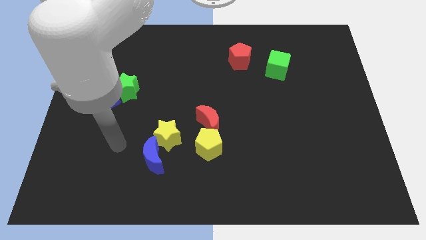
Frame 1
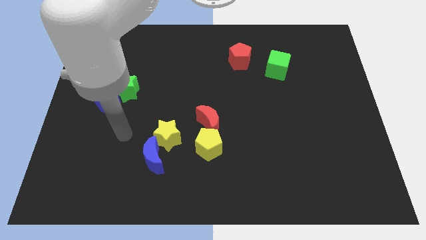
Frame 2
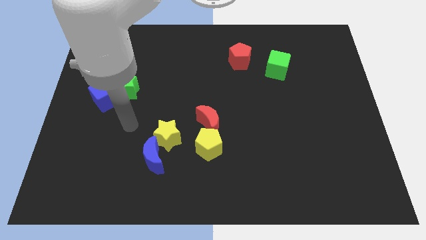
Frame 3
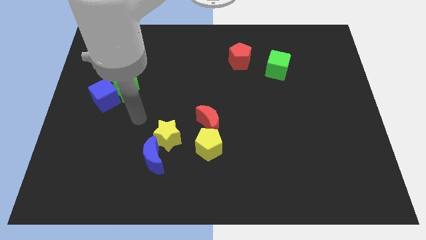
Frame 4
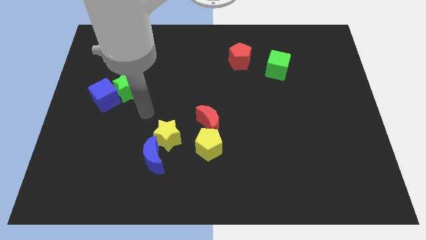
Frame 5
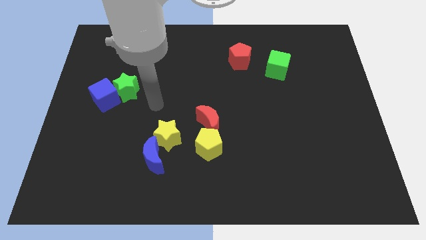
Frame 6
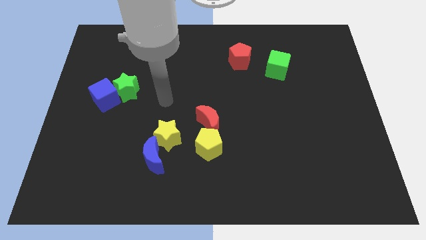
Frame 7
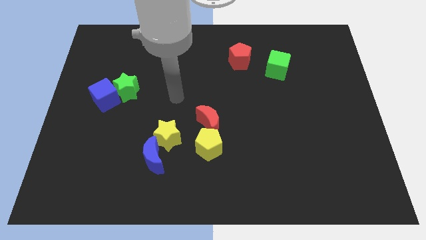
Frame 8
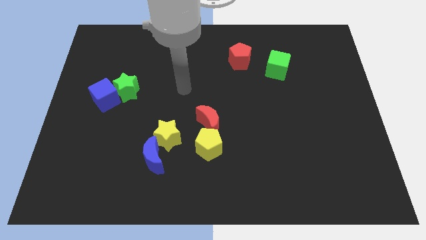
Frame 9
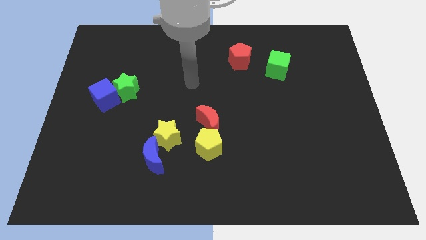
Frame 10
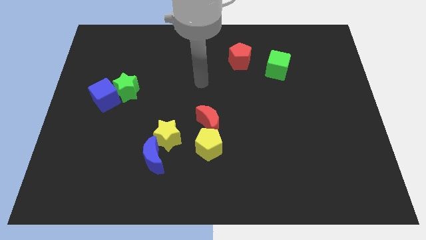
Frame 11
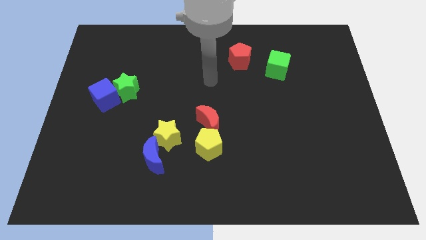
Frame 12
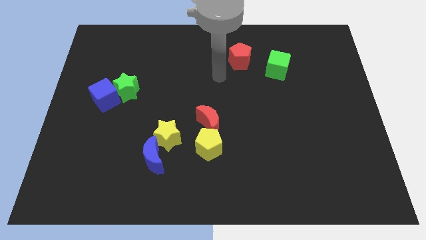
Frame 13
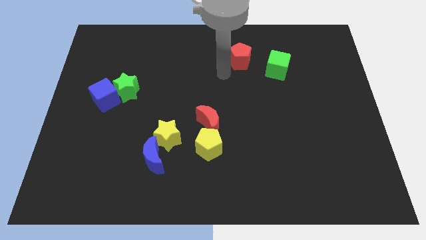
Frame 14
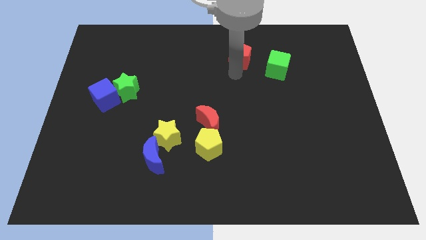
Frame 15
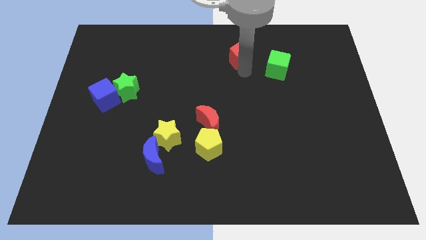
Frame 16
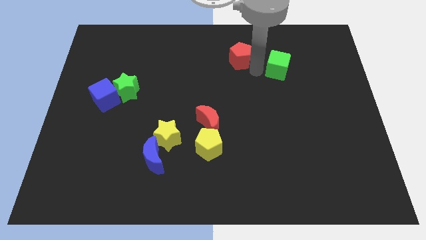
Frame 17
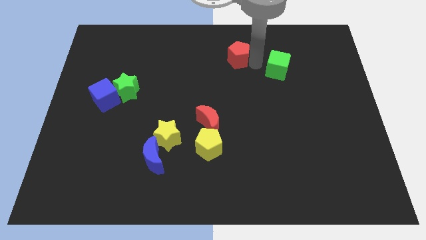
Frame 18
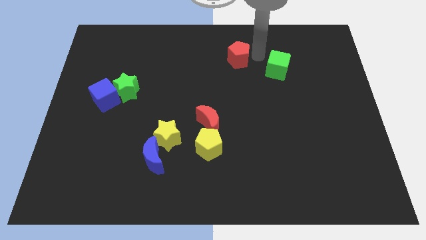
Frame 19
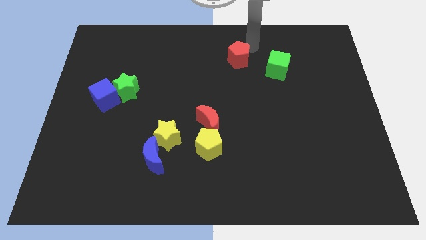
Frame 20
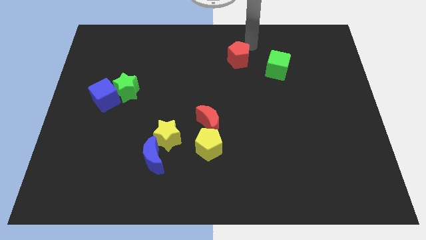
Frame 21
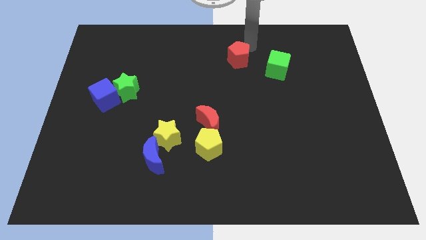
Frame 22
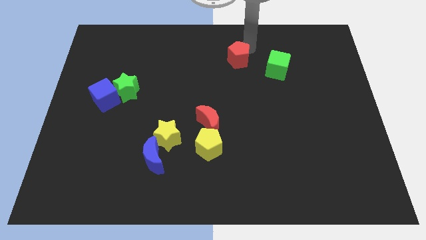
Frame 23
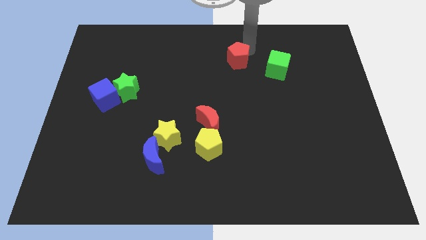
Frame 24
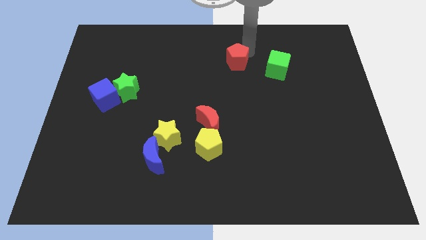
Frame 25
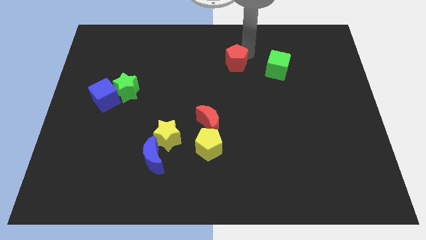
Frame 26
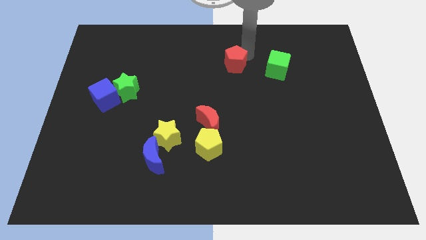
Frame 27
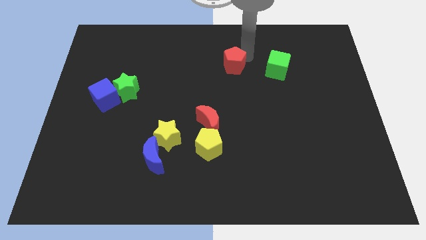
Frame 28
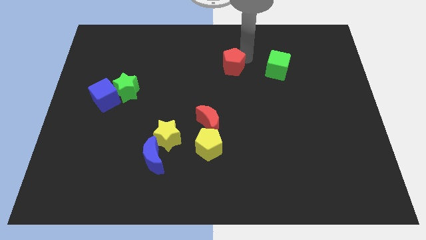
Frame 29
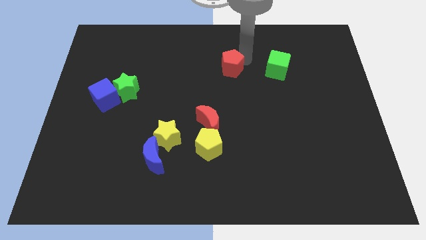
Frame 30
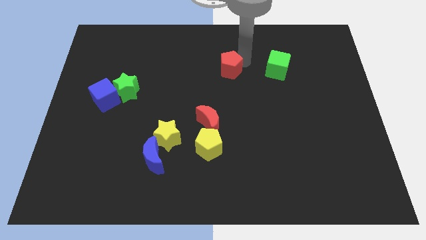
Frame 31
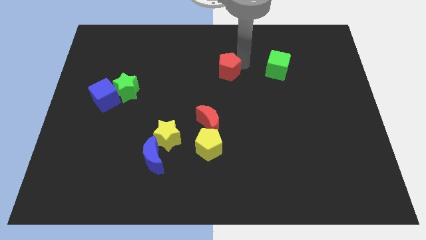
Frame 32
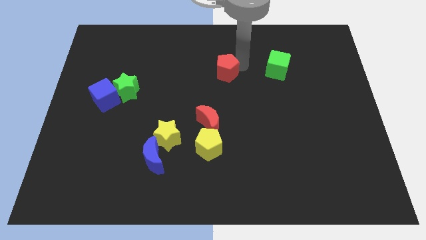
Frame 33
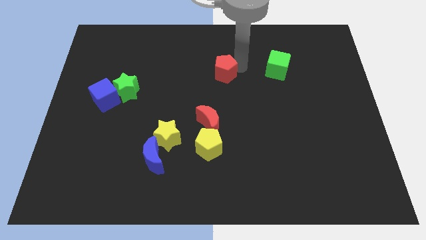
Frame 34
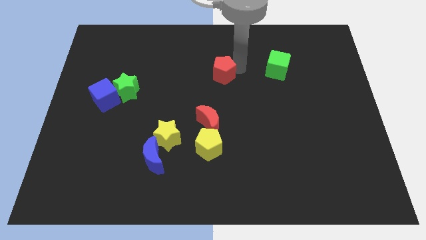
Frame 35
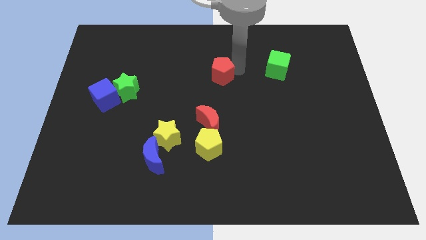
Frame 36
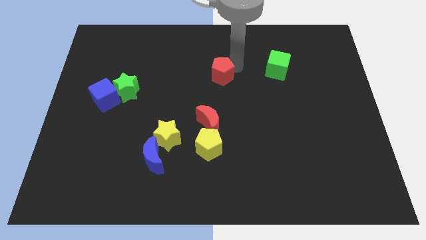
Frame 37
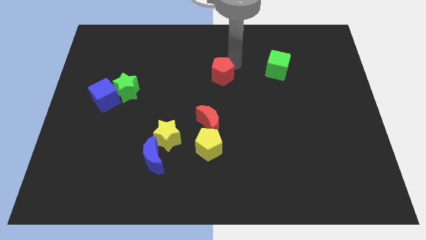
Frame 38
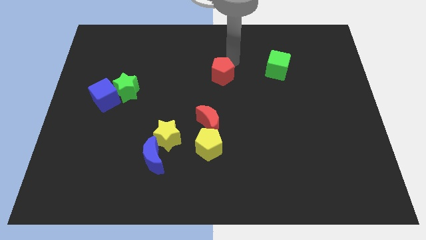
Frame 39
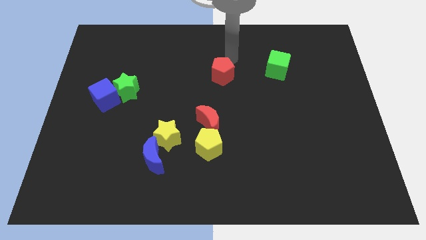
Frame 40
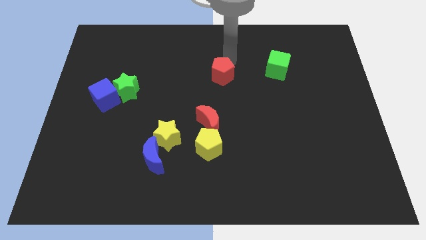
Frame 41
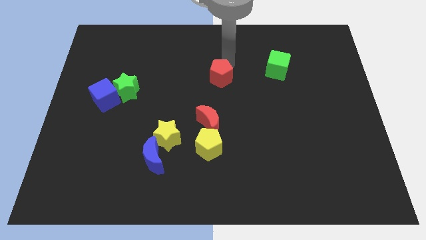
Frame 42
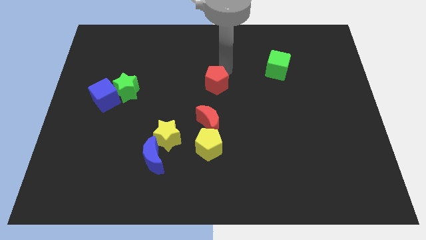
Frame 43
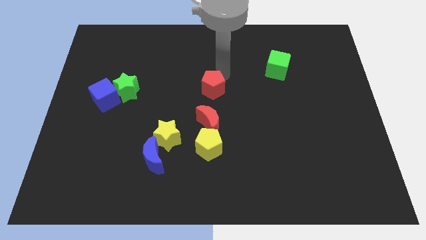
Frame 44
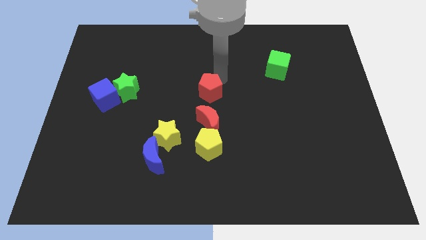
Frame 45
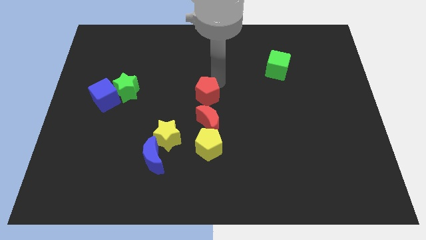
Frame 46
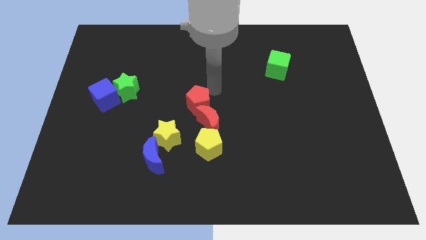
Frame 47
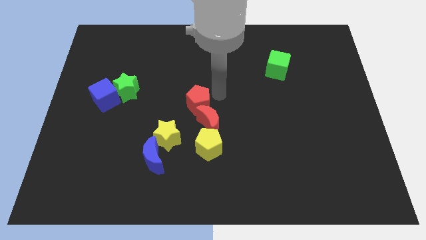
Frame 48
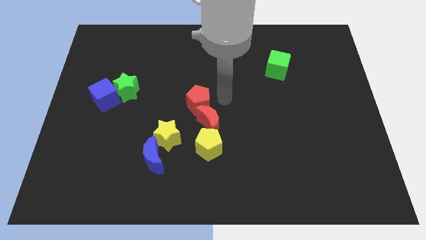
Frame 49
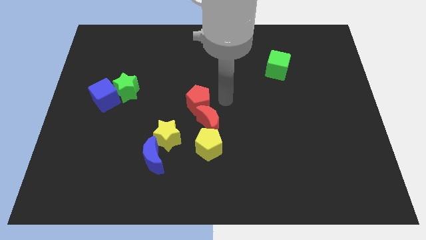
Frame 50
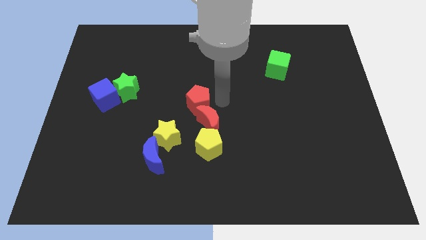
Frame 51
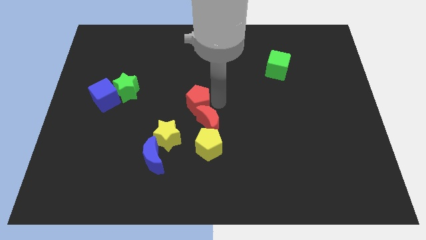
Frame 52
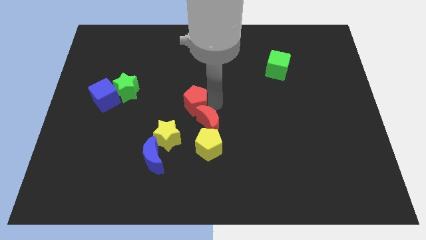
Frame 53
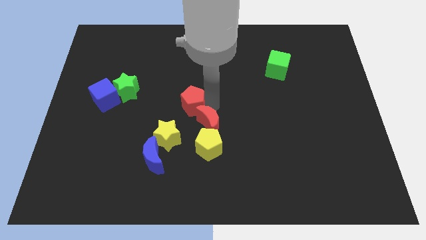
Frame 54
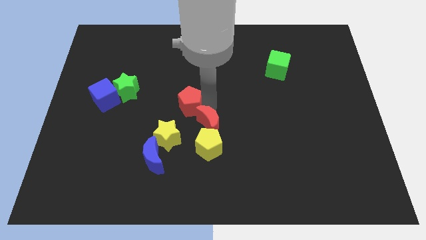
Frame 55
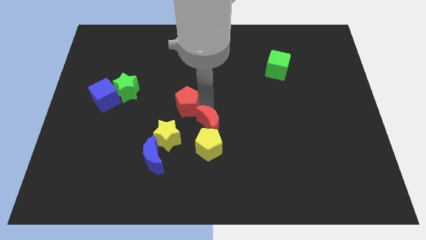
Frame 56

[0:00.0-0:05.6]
push the red pentagon down and to the left diagonally

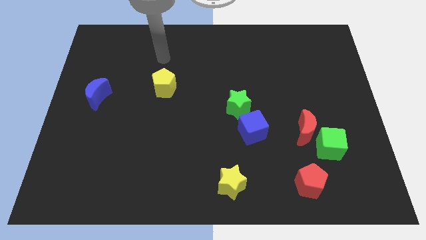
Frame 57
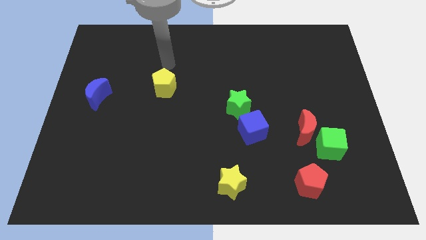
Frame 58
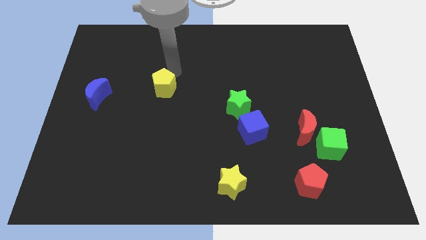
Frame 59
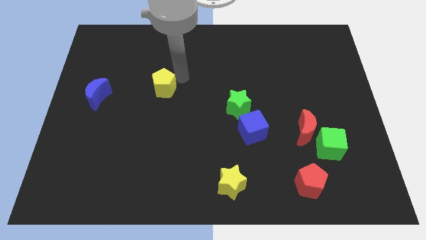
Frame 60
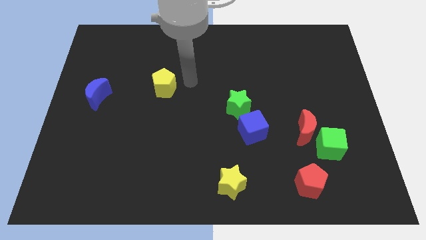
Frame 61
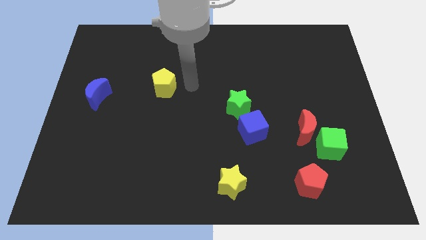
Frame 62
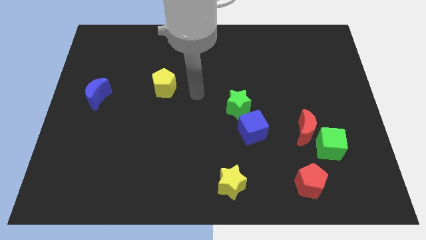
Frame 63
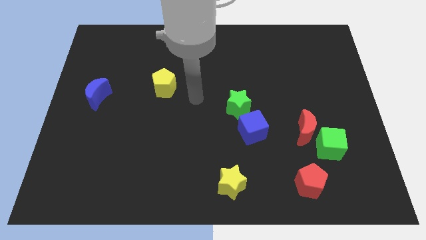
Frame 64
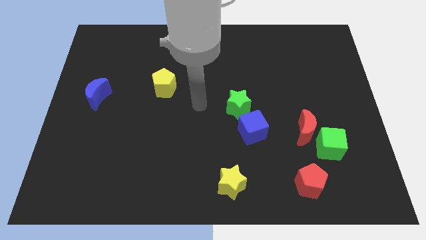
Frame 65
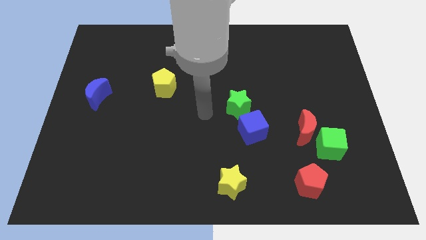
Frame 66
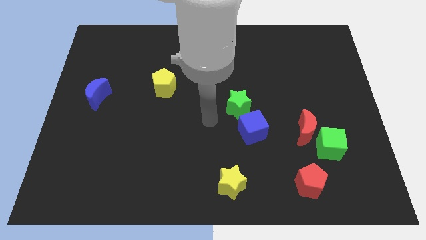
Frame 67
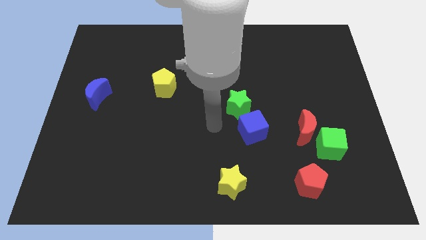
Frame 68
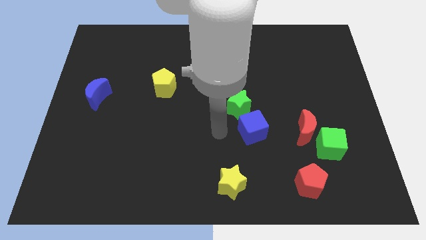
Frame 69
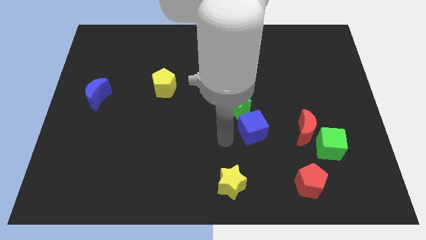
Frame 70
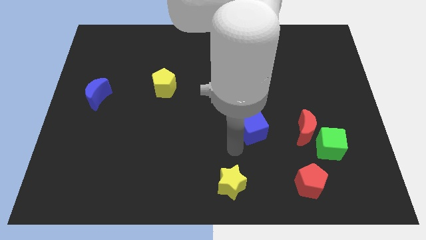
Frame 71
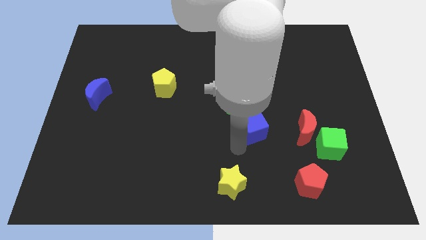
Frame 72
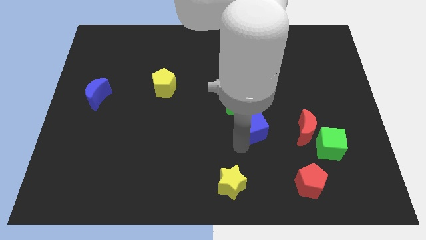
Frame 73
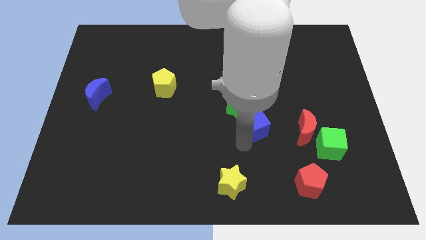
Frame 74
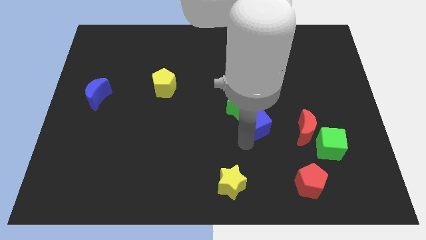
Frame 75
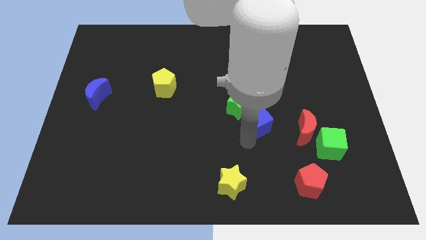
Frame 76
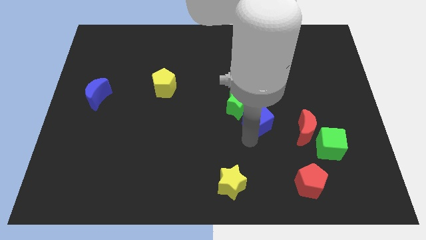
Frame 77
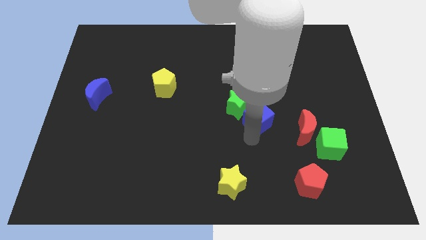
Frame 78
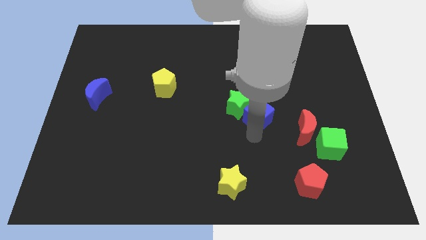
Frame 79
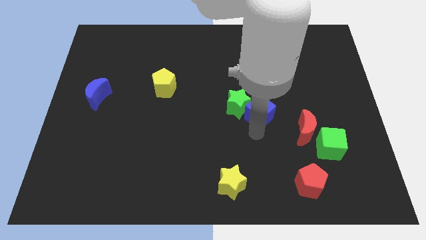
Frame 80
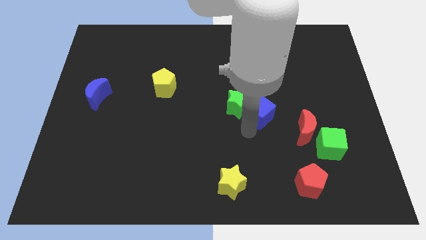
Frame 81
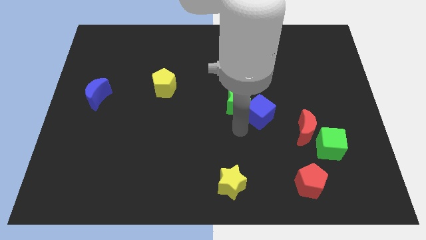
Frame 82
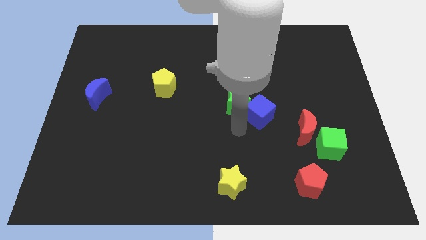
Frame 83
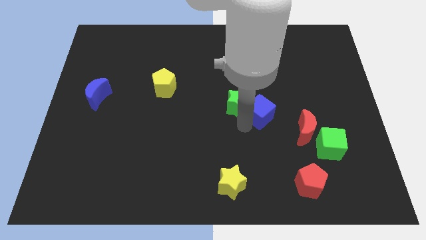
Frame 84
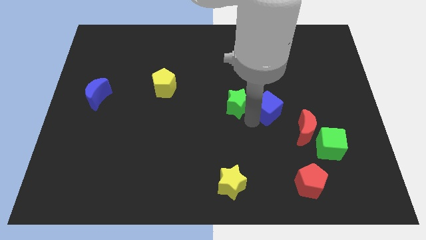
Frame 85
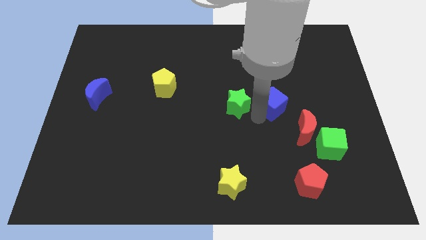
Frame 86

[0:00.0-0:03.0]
move the blue cube a little bit diagonally upwards and right
